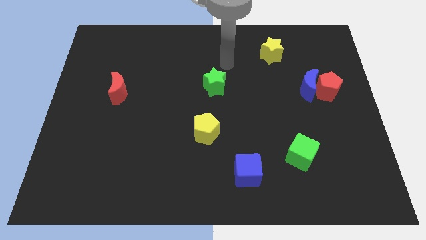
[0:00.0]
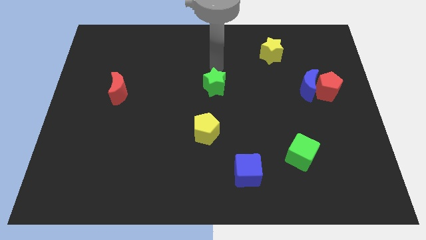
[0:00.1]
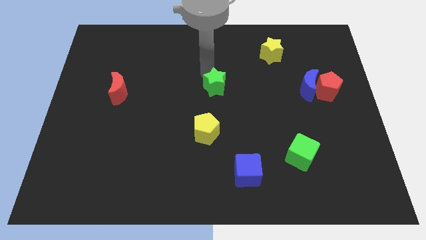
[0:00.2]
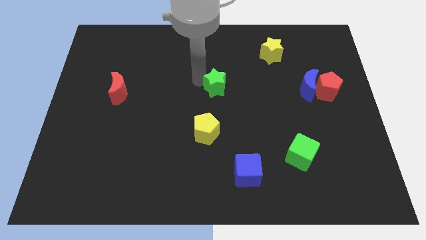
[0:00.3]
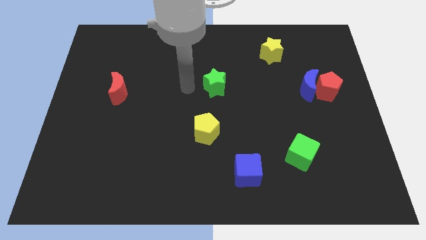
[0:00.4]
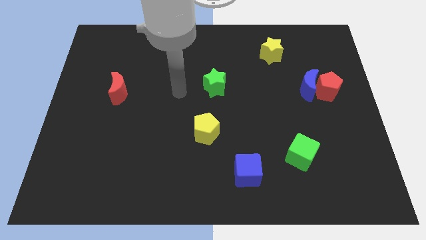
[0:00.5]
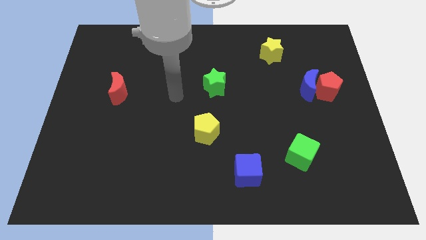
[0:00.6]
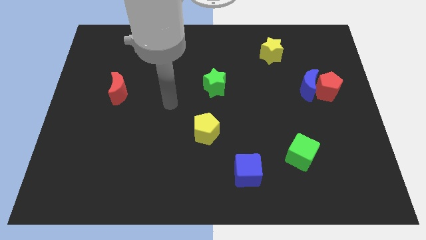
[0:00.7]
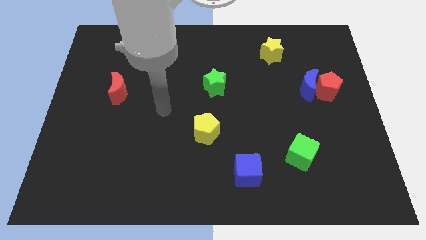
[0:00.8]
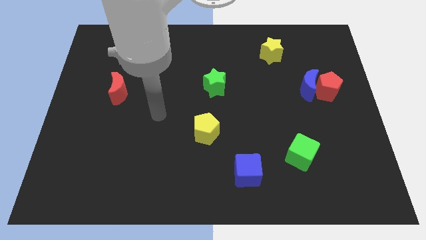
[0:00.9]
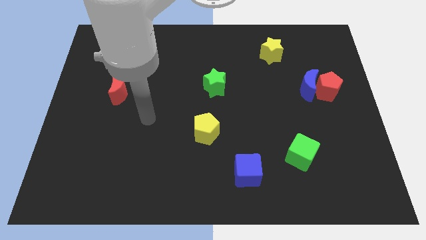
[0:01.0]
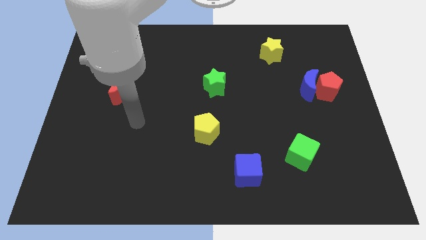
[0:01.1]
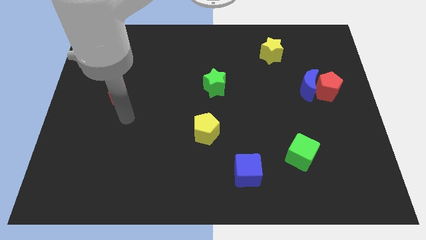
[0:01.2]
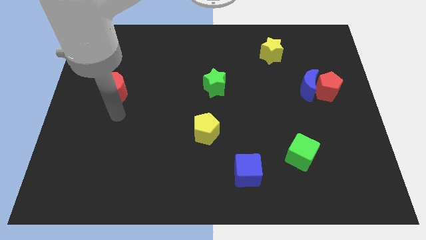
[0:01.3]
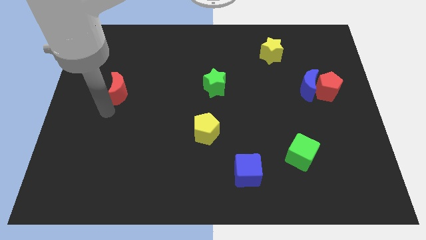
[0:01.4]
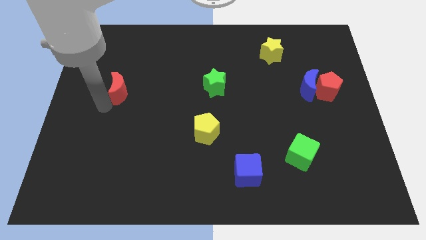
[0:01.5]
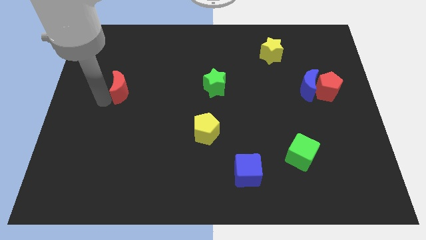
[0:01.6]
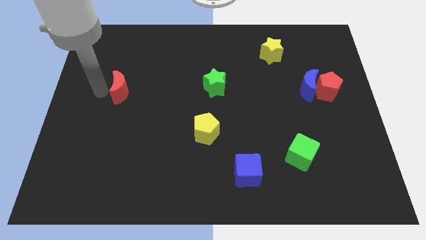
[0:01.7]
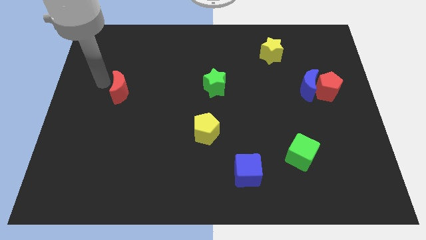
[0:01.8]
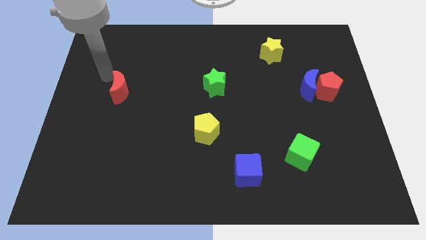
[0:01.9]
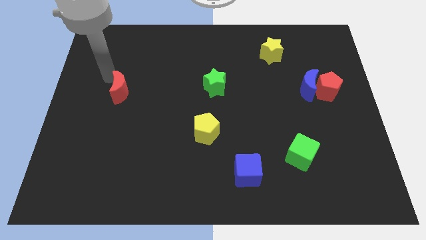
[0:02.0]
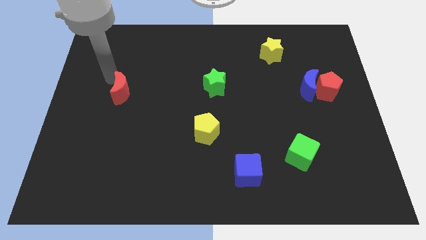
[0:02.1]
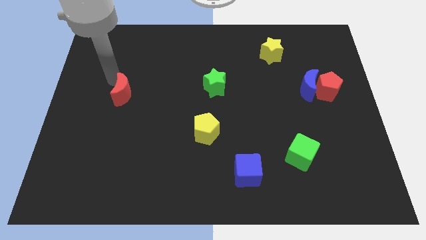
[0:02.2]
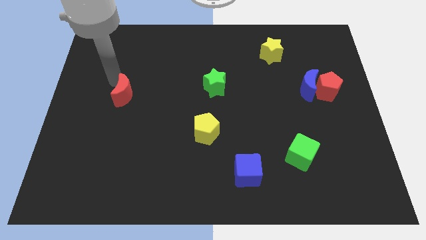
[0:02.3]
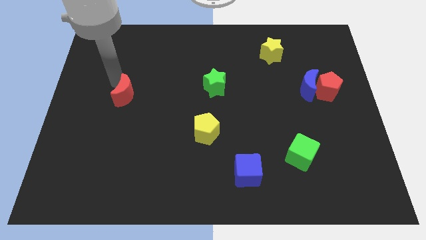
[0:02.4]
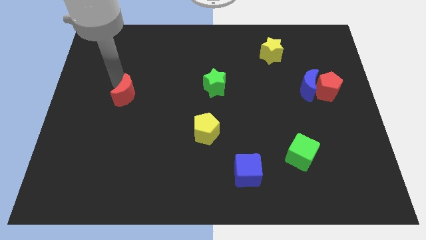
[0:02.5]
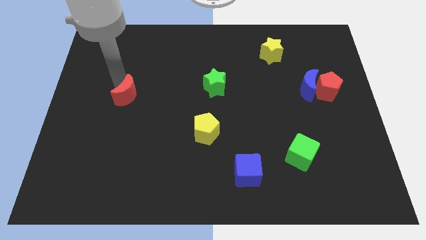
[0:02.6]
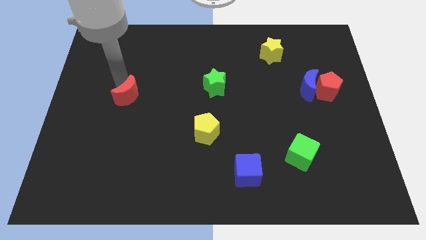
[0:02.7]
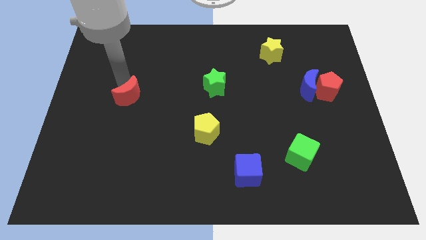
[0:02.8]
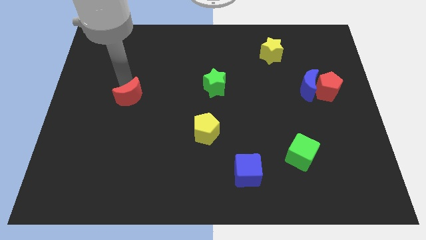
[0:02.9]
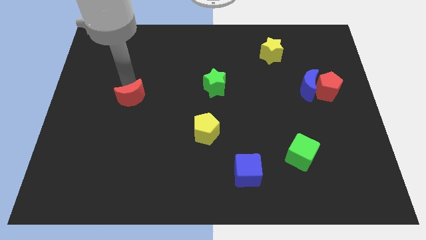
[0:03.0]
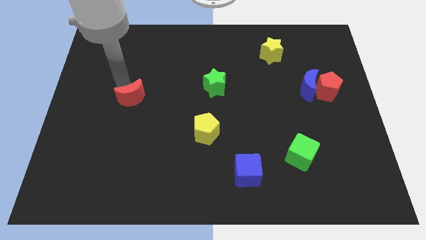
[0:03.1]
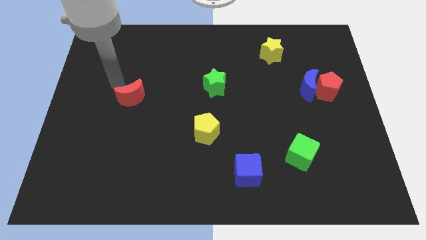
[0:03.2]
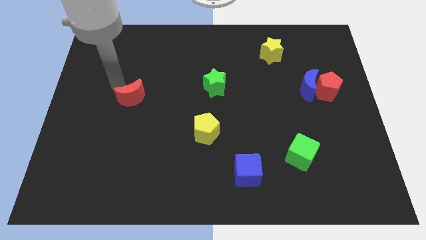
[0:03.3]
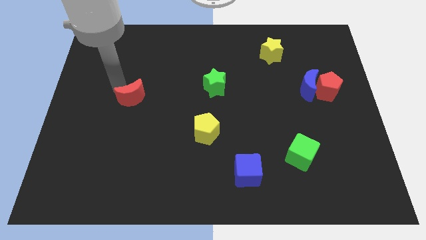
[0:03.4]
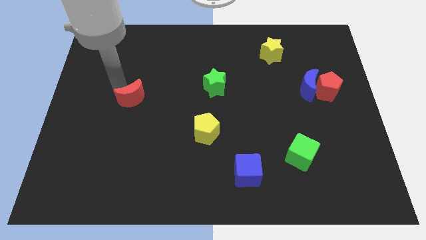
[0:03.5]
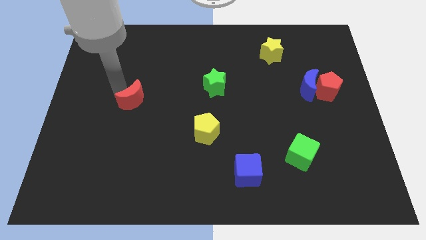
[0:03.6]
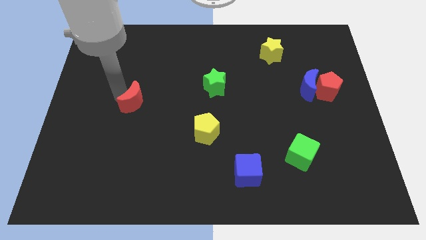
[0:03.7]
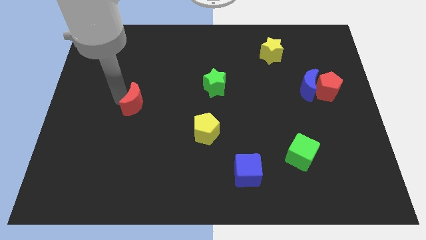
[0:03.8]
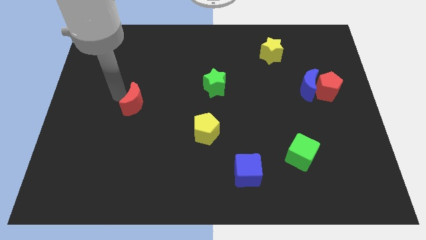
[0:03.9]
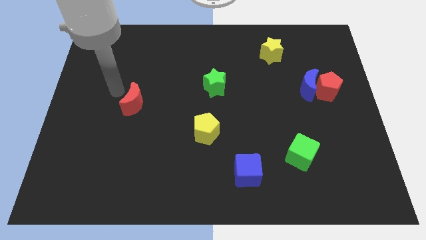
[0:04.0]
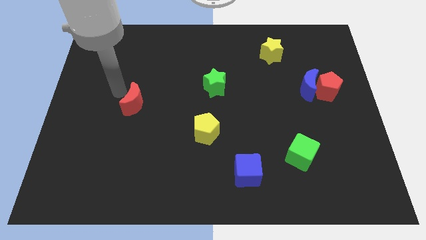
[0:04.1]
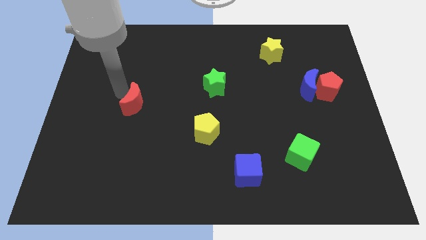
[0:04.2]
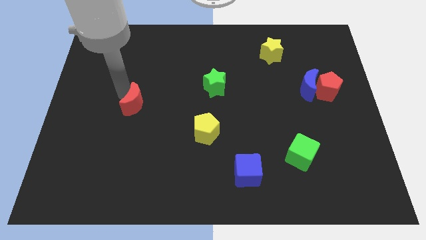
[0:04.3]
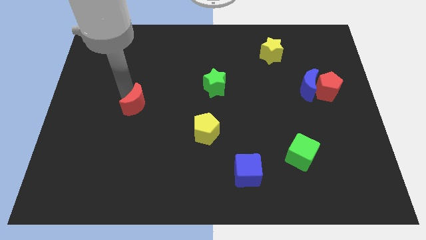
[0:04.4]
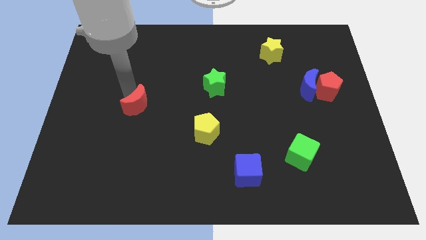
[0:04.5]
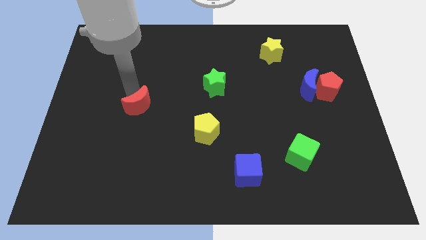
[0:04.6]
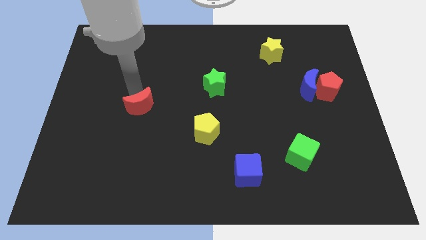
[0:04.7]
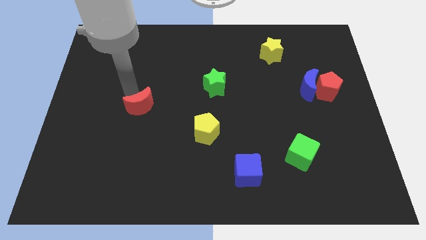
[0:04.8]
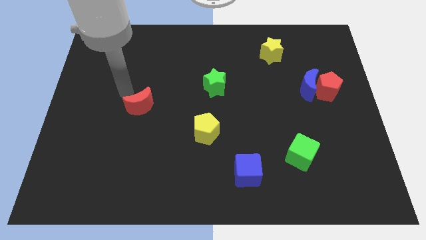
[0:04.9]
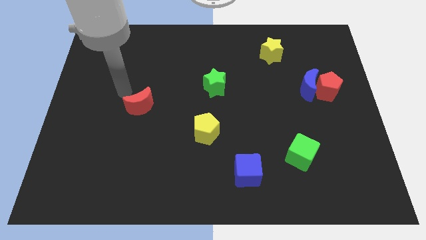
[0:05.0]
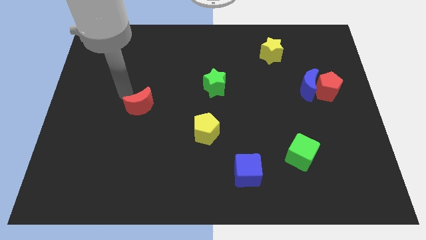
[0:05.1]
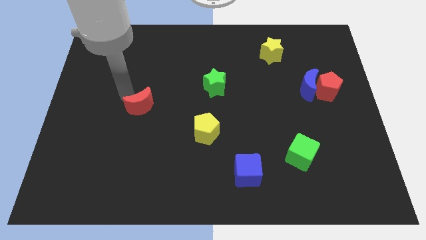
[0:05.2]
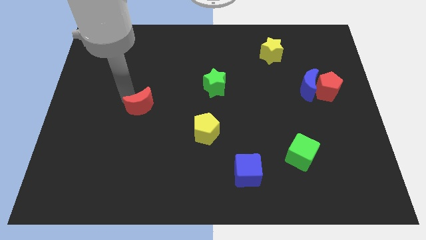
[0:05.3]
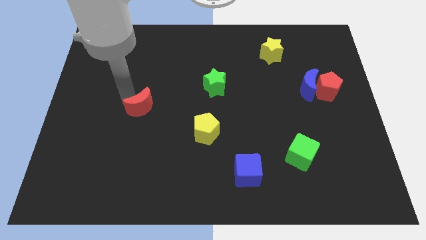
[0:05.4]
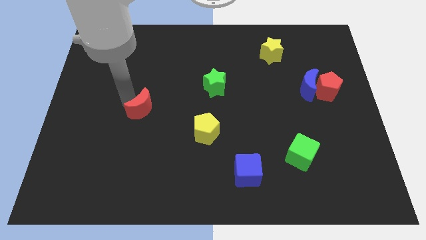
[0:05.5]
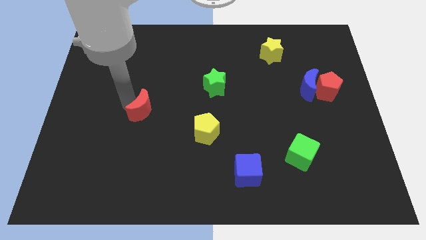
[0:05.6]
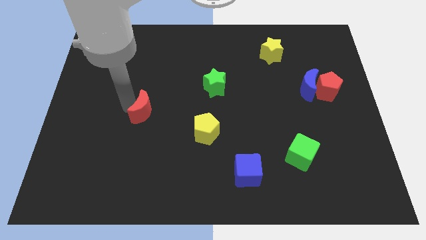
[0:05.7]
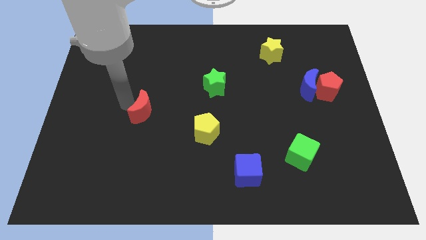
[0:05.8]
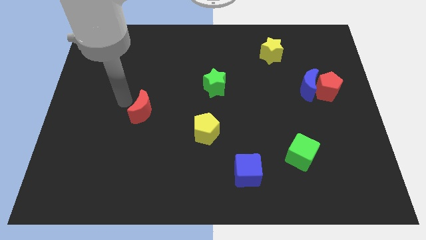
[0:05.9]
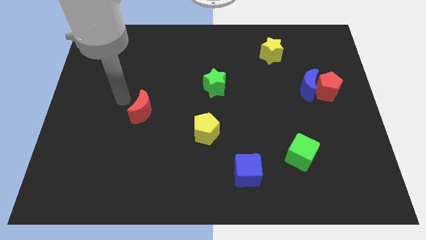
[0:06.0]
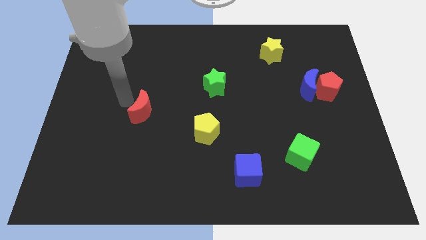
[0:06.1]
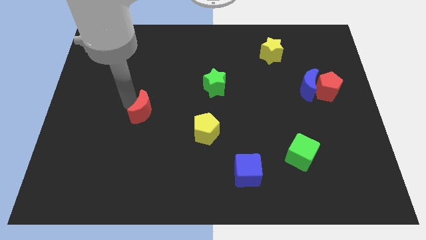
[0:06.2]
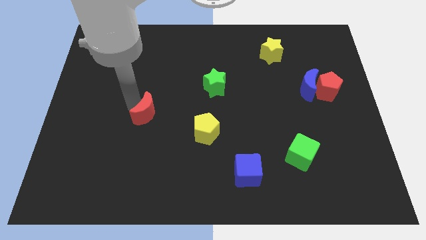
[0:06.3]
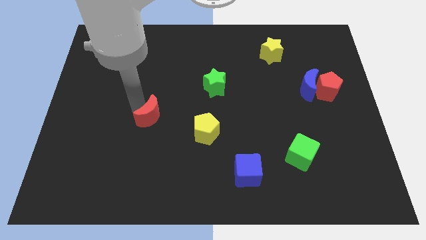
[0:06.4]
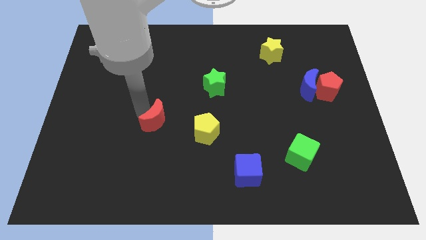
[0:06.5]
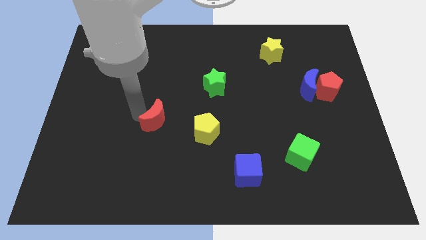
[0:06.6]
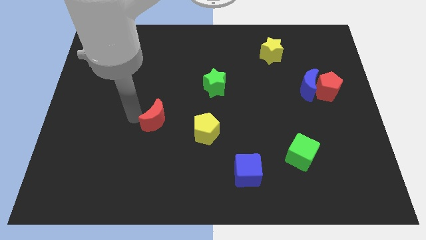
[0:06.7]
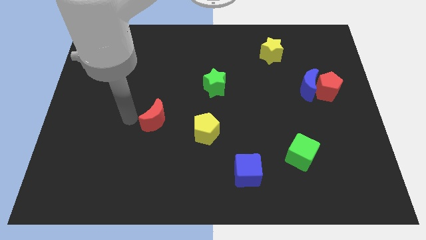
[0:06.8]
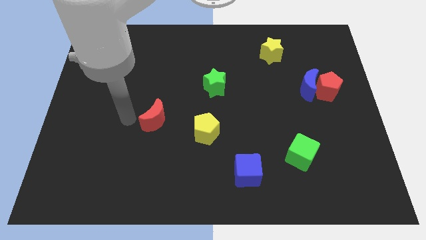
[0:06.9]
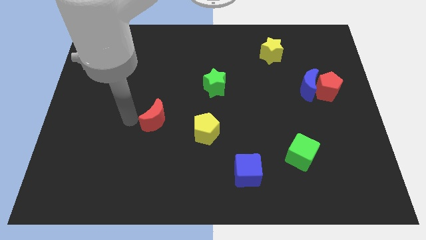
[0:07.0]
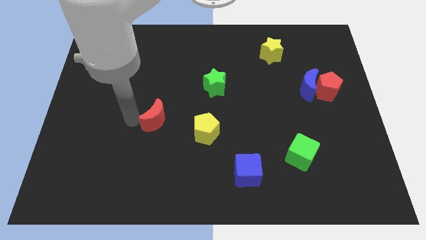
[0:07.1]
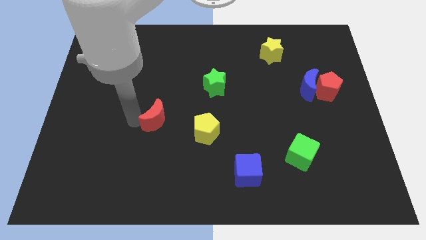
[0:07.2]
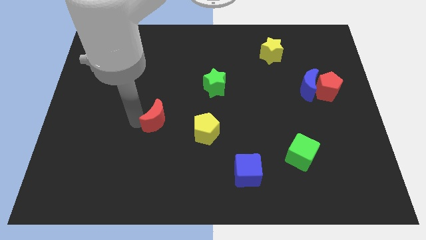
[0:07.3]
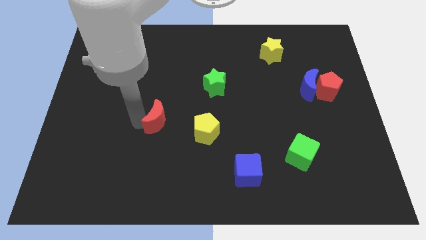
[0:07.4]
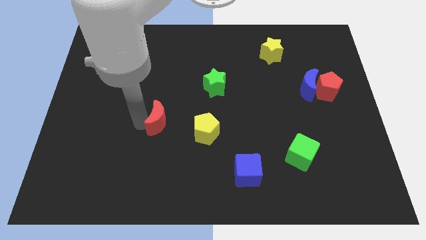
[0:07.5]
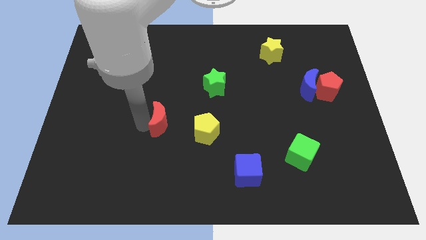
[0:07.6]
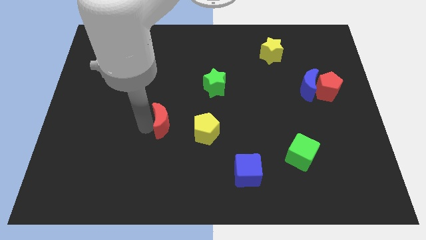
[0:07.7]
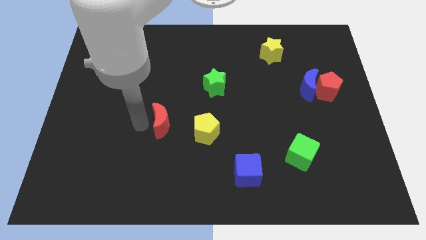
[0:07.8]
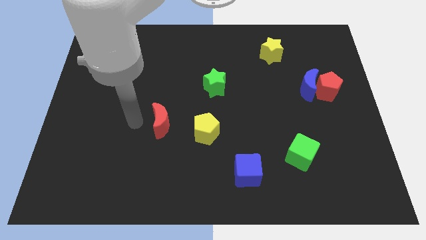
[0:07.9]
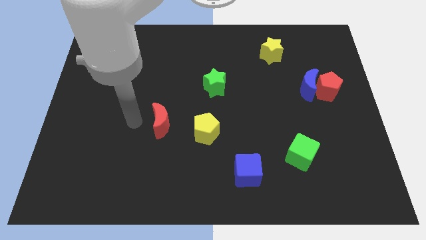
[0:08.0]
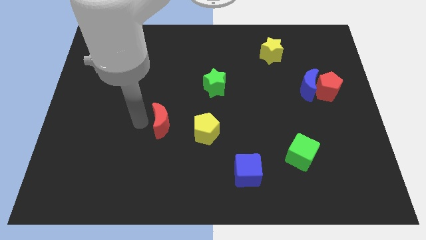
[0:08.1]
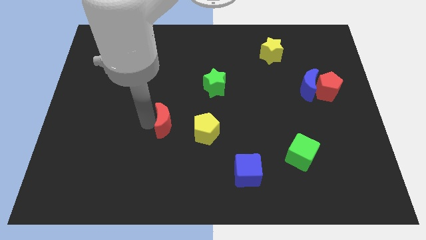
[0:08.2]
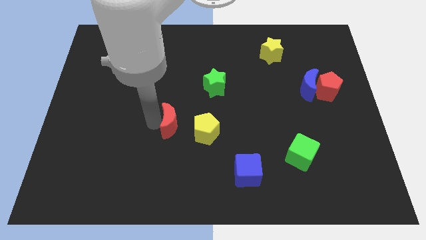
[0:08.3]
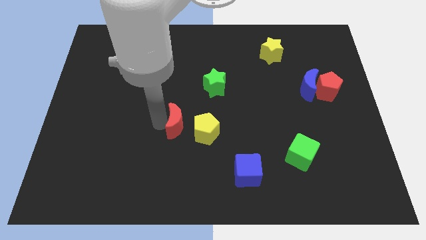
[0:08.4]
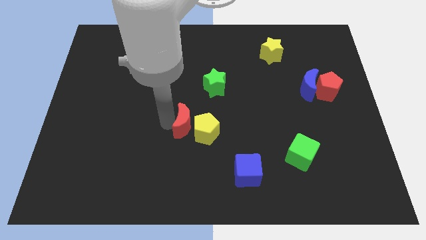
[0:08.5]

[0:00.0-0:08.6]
push the red moon next to the yellow pentagon
